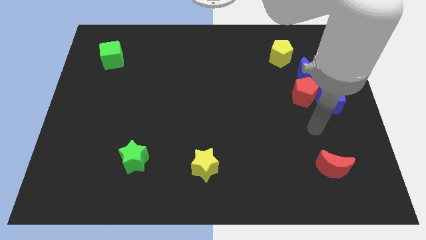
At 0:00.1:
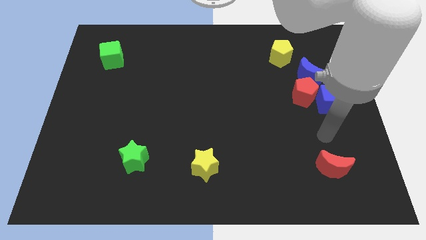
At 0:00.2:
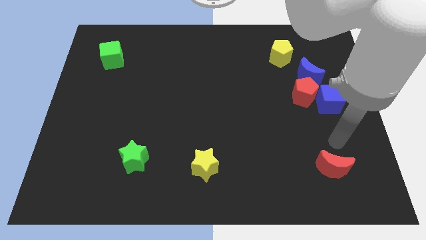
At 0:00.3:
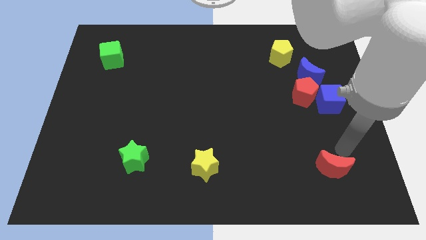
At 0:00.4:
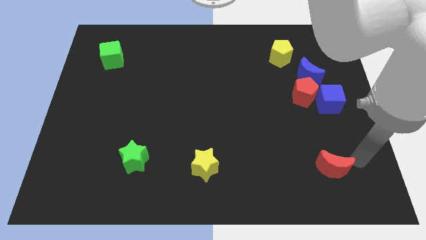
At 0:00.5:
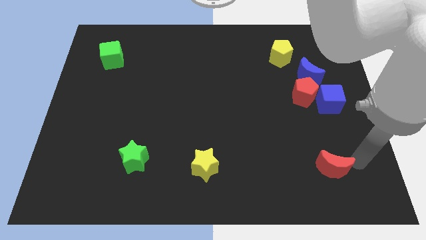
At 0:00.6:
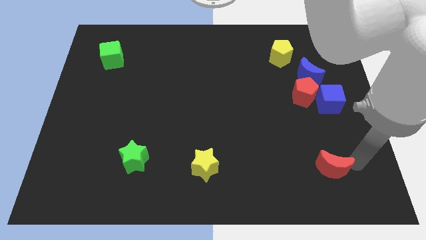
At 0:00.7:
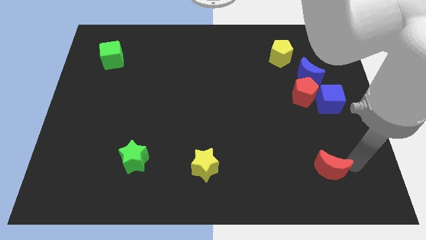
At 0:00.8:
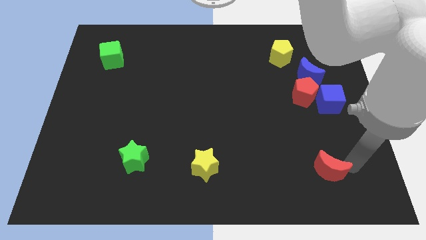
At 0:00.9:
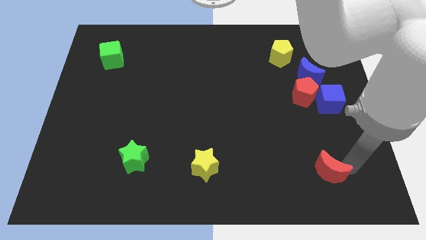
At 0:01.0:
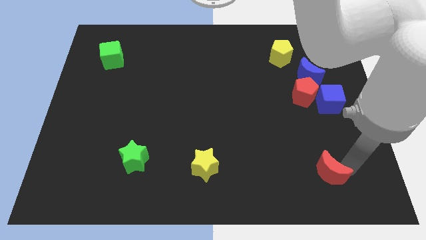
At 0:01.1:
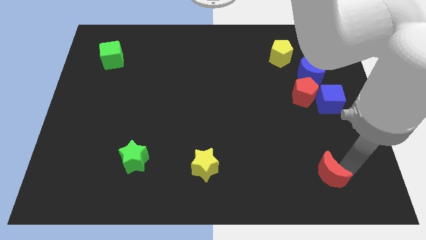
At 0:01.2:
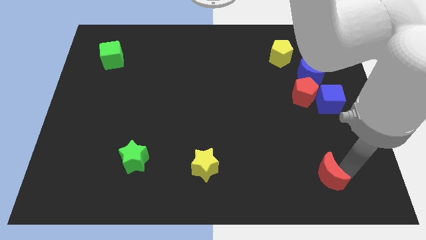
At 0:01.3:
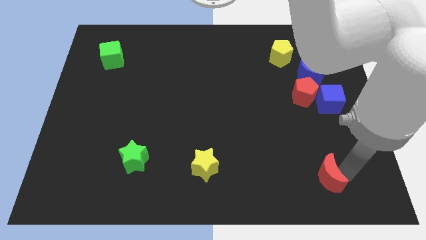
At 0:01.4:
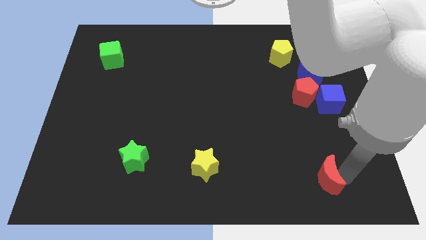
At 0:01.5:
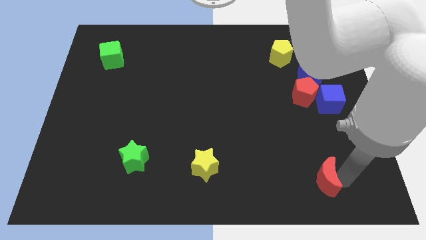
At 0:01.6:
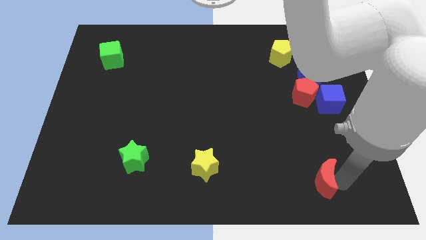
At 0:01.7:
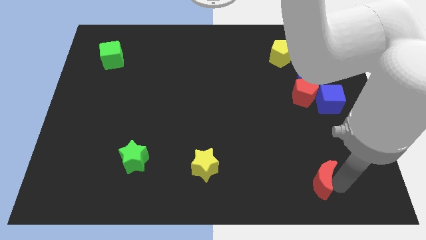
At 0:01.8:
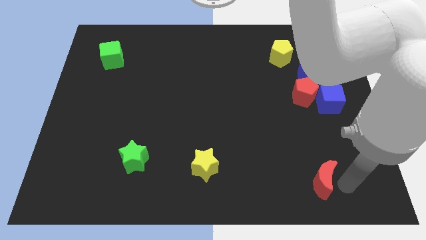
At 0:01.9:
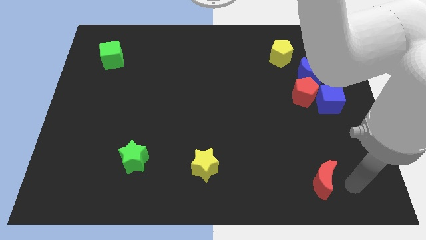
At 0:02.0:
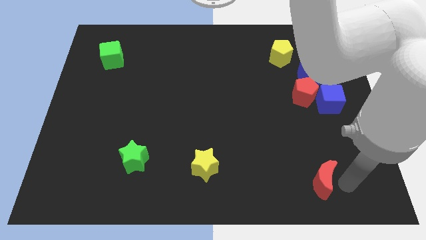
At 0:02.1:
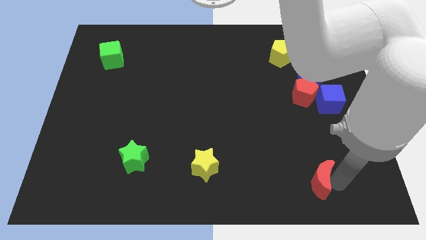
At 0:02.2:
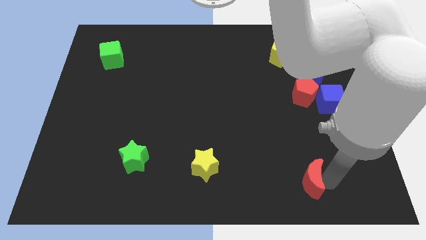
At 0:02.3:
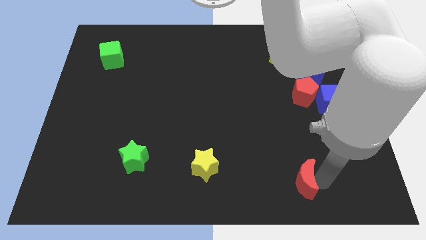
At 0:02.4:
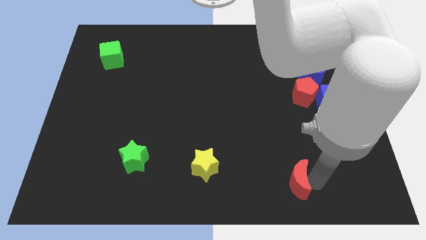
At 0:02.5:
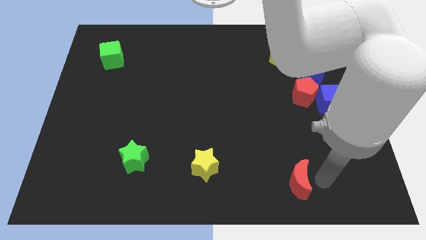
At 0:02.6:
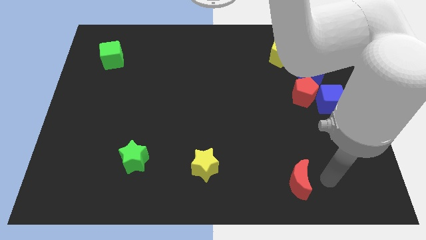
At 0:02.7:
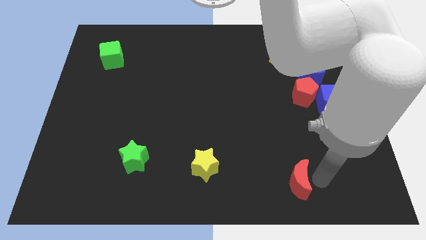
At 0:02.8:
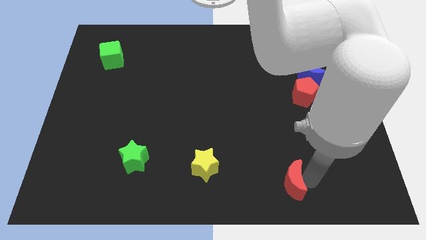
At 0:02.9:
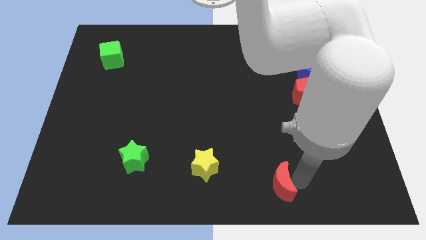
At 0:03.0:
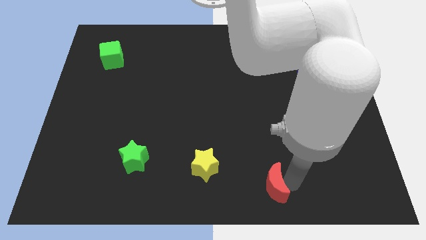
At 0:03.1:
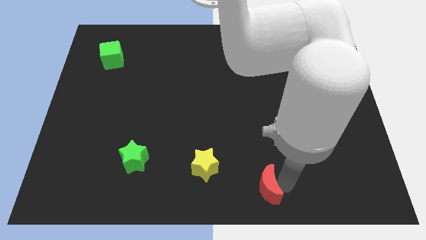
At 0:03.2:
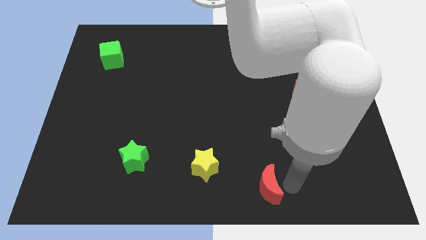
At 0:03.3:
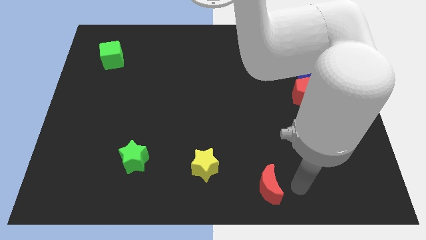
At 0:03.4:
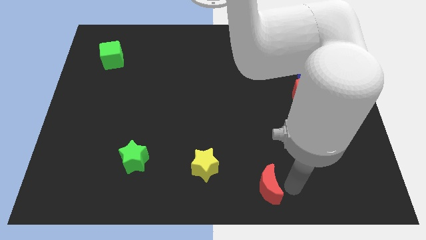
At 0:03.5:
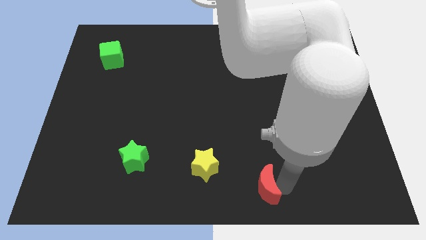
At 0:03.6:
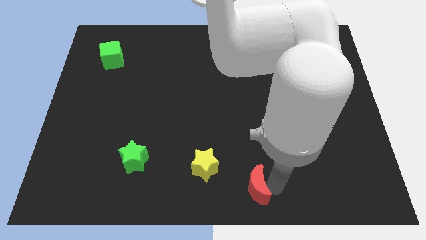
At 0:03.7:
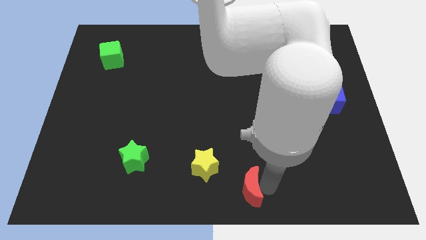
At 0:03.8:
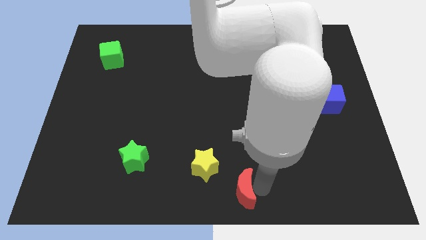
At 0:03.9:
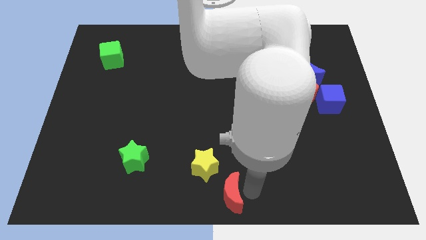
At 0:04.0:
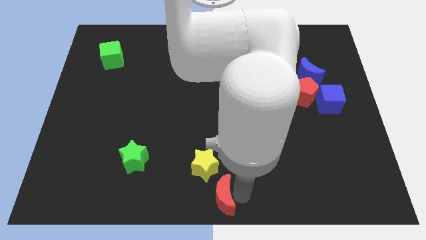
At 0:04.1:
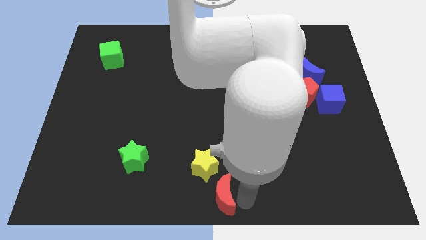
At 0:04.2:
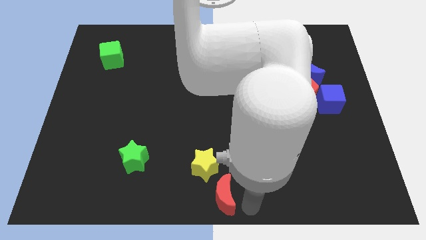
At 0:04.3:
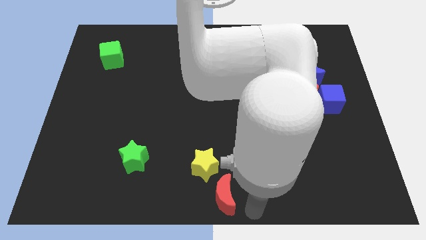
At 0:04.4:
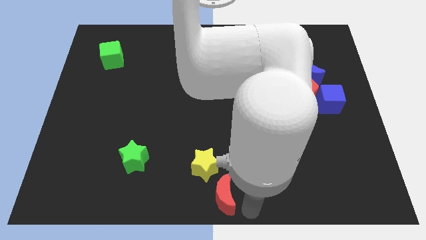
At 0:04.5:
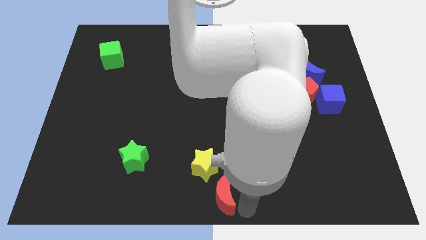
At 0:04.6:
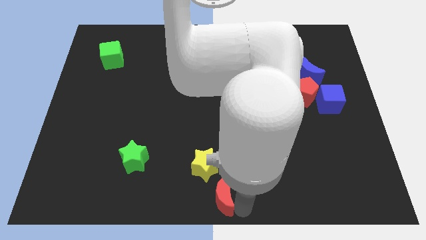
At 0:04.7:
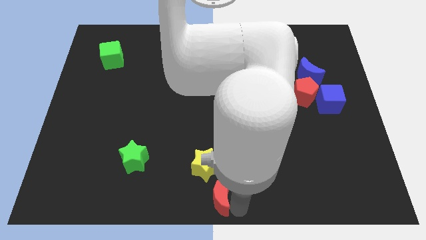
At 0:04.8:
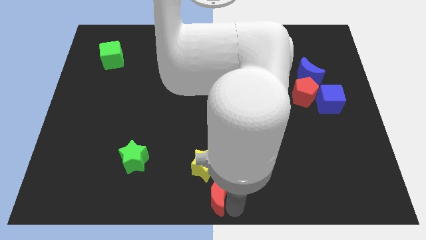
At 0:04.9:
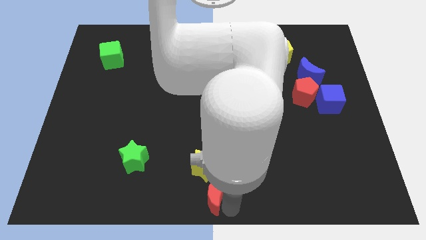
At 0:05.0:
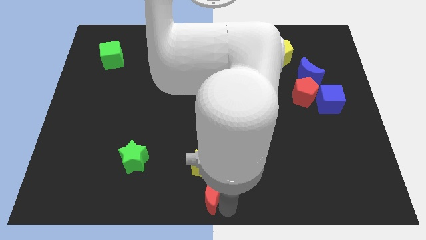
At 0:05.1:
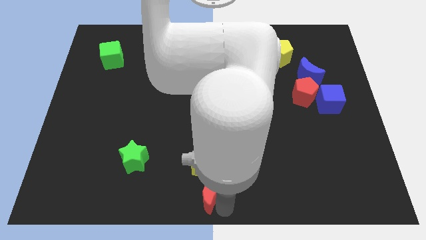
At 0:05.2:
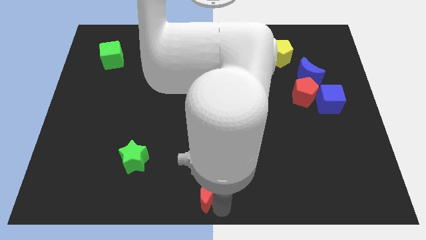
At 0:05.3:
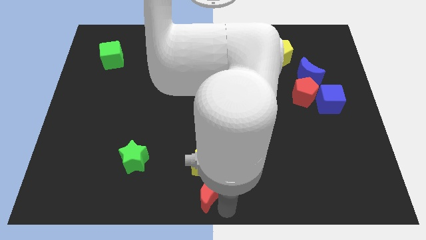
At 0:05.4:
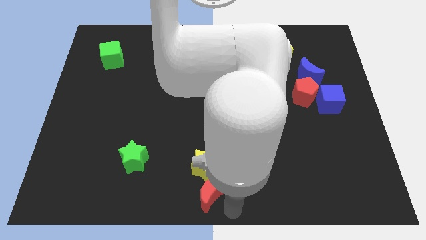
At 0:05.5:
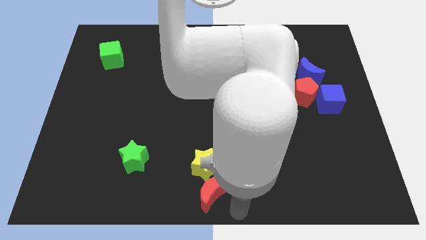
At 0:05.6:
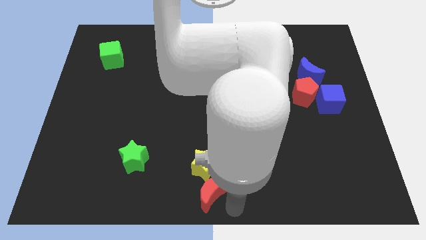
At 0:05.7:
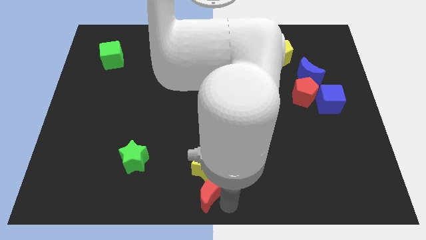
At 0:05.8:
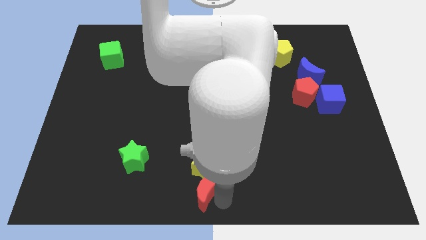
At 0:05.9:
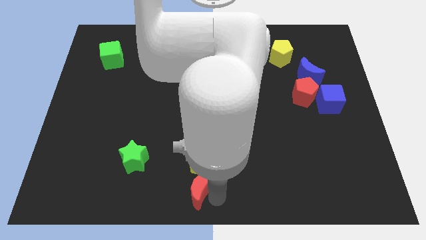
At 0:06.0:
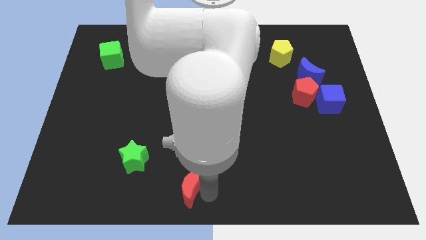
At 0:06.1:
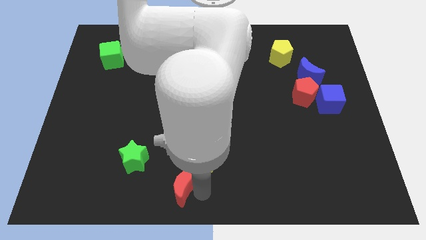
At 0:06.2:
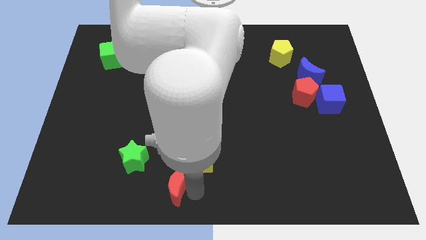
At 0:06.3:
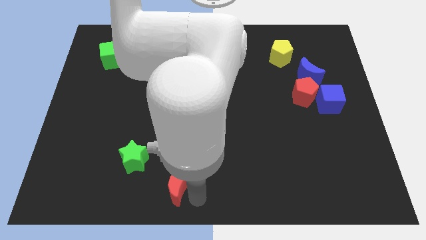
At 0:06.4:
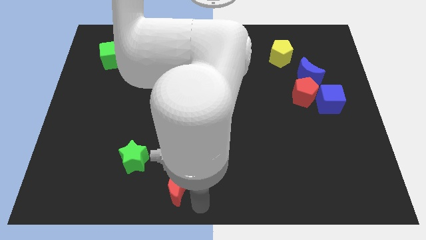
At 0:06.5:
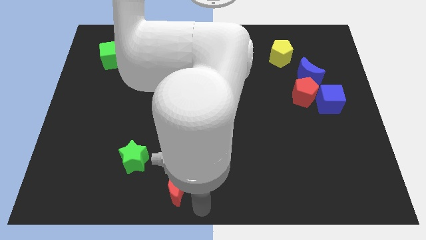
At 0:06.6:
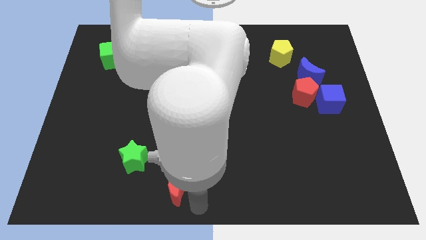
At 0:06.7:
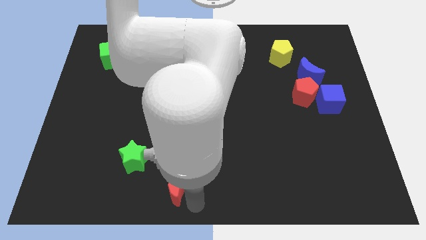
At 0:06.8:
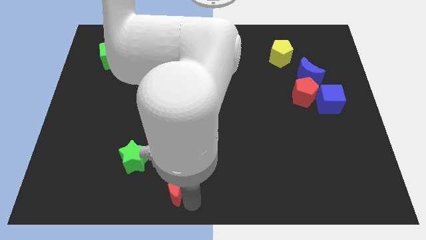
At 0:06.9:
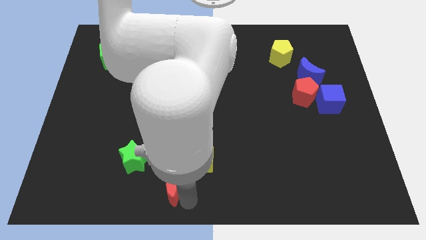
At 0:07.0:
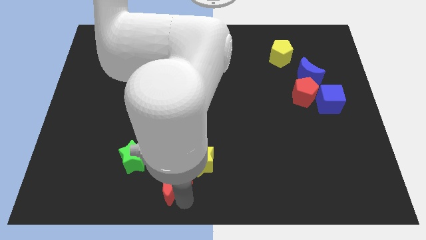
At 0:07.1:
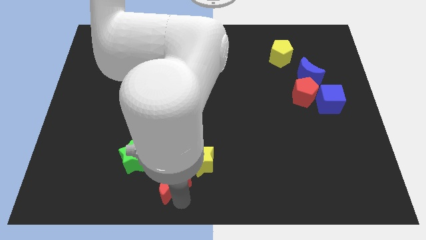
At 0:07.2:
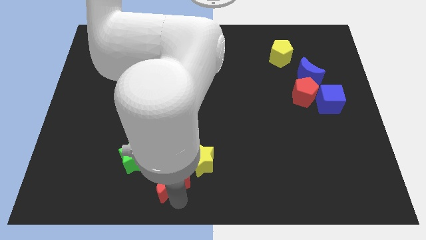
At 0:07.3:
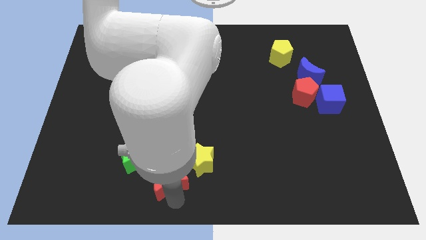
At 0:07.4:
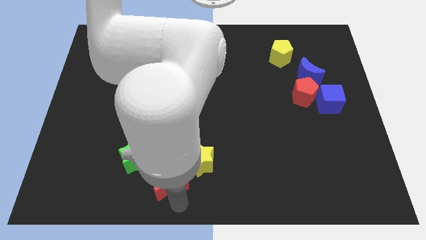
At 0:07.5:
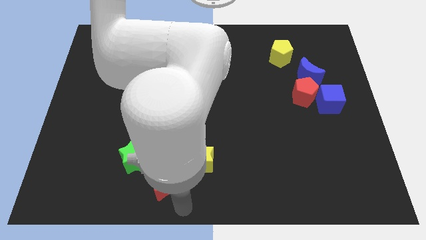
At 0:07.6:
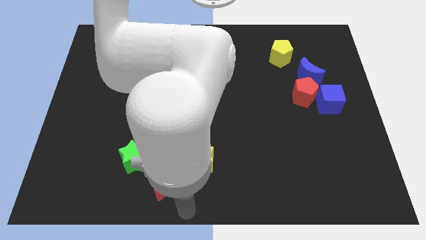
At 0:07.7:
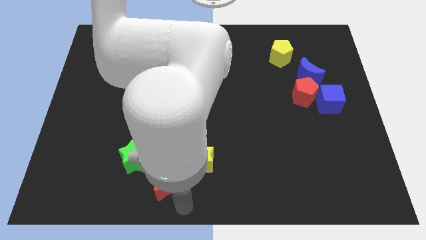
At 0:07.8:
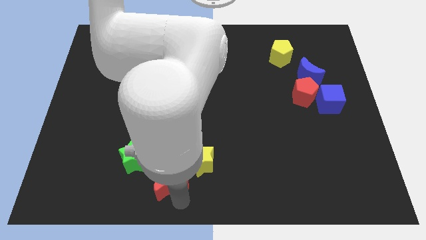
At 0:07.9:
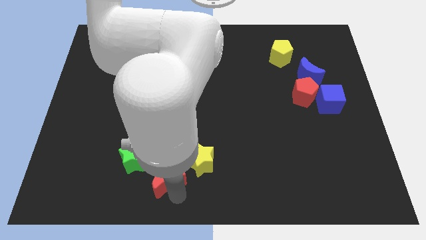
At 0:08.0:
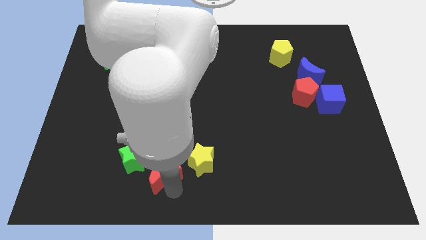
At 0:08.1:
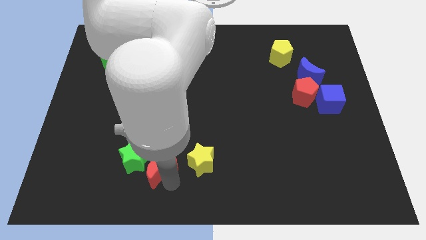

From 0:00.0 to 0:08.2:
push the red moon close to the green star
